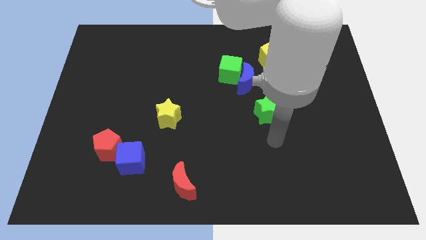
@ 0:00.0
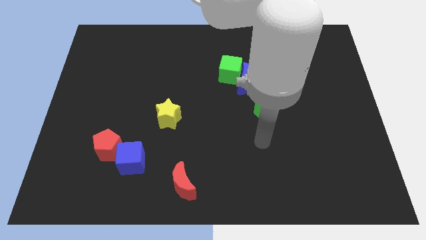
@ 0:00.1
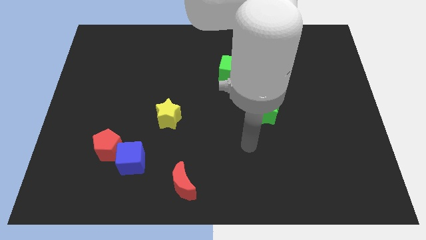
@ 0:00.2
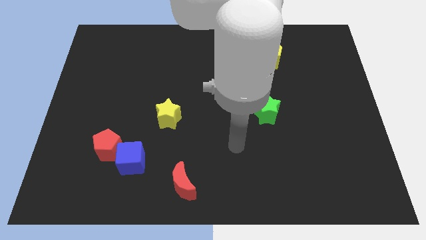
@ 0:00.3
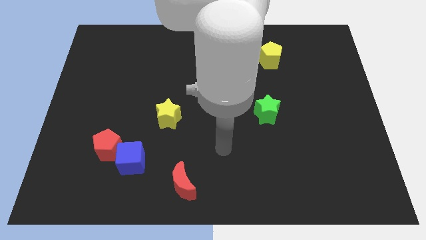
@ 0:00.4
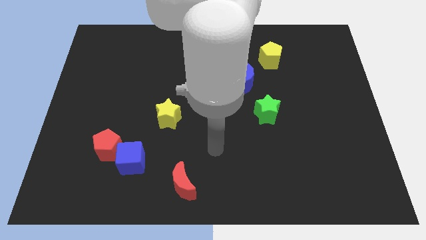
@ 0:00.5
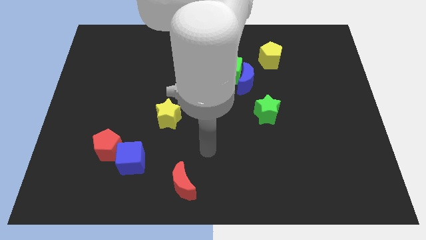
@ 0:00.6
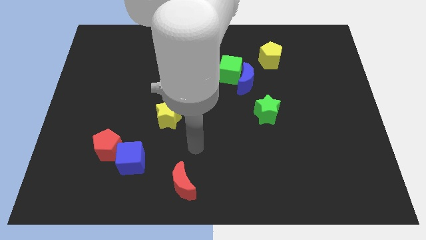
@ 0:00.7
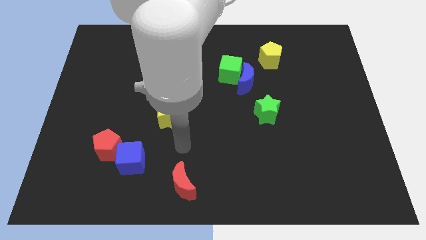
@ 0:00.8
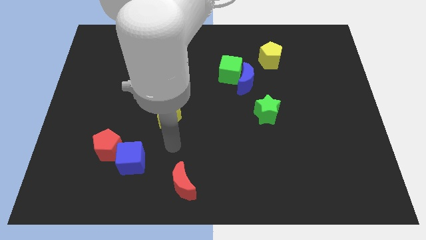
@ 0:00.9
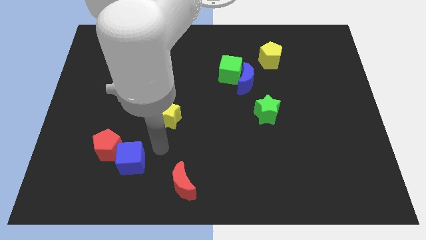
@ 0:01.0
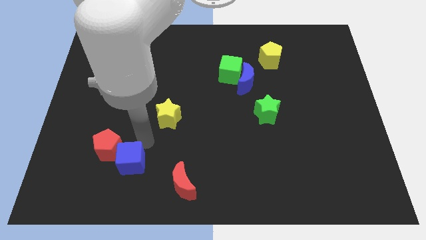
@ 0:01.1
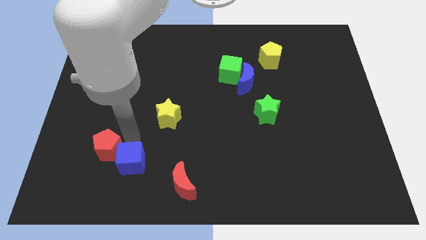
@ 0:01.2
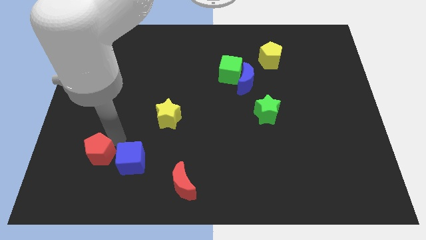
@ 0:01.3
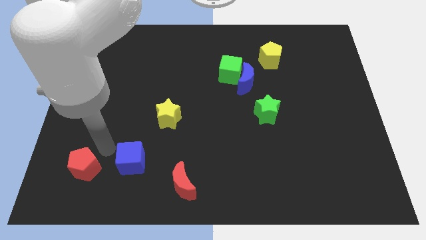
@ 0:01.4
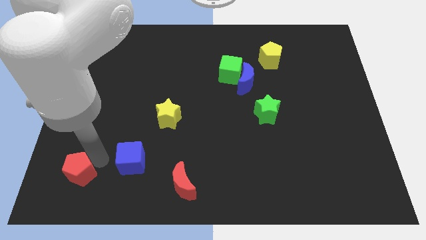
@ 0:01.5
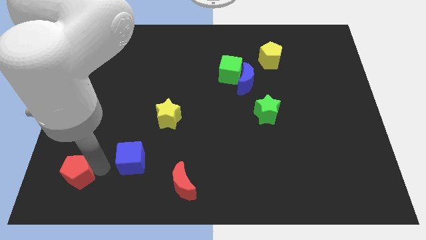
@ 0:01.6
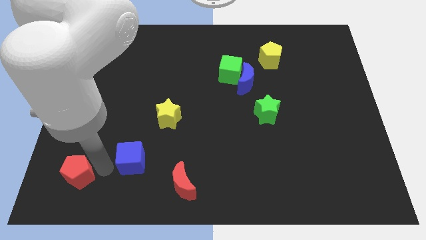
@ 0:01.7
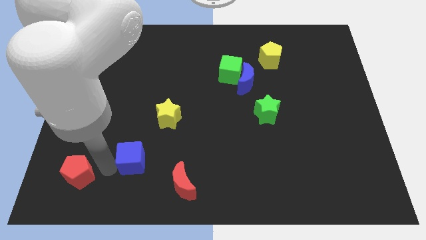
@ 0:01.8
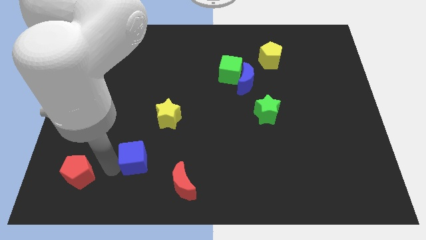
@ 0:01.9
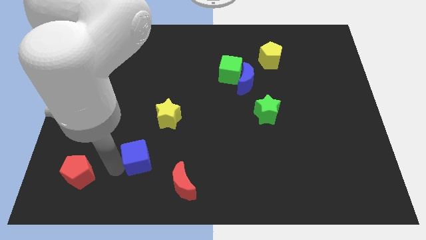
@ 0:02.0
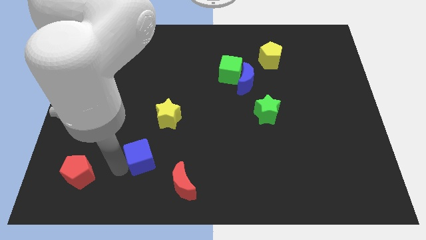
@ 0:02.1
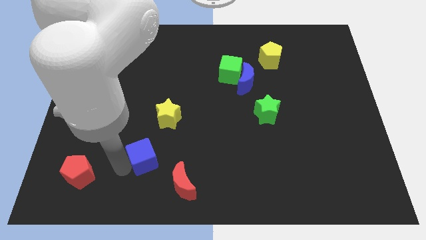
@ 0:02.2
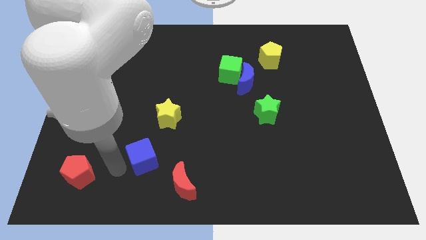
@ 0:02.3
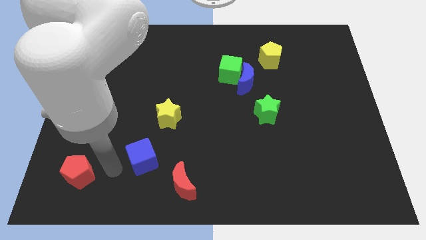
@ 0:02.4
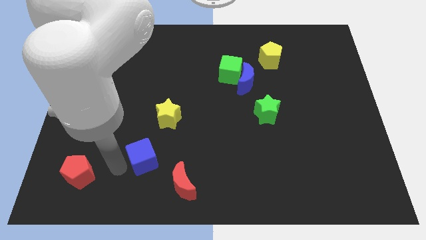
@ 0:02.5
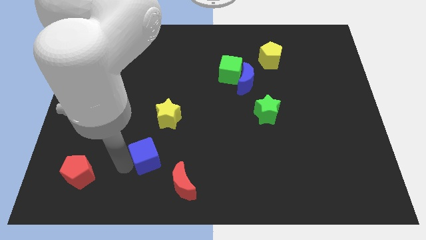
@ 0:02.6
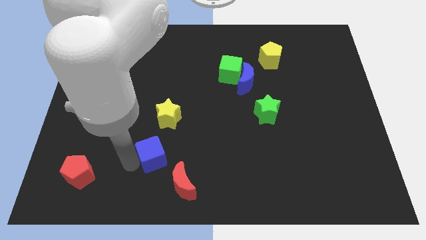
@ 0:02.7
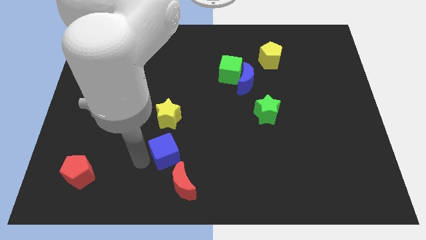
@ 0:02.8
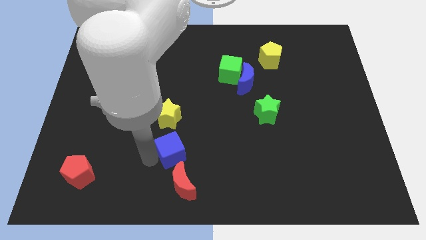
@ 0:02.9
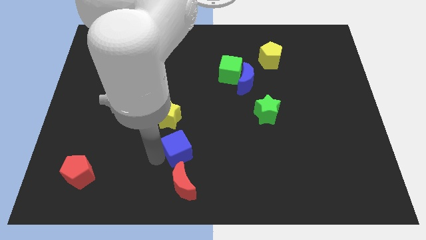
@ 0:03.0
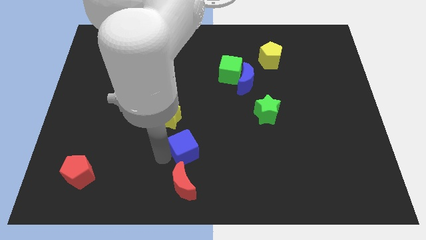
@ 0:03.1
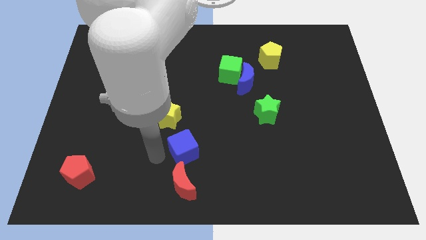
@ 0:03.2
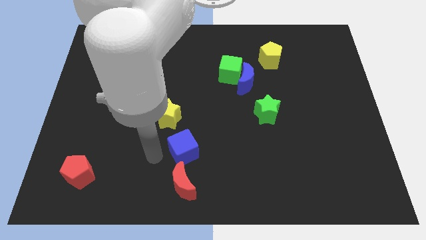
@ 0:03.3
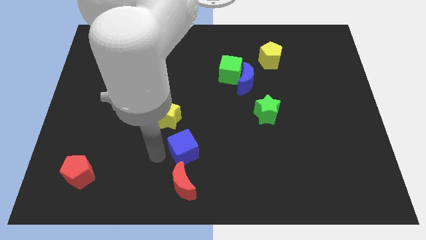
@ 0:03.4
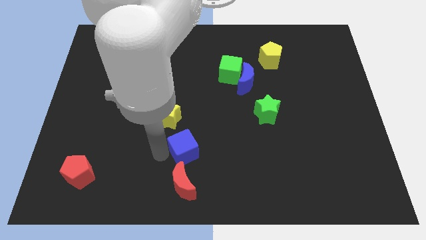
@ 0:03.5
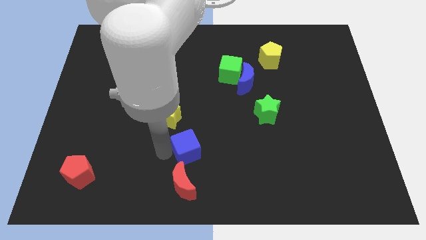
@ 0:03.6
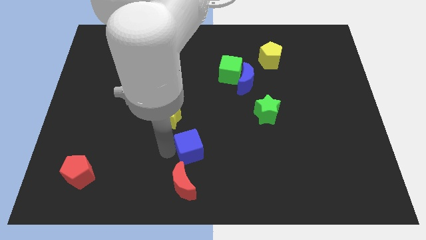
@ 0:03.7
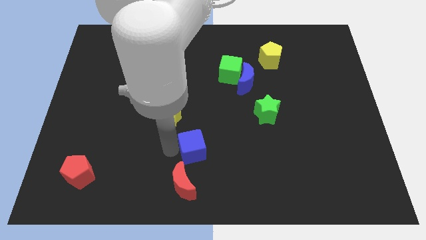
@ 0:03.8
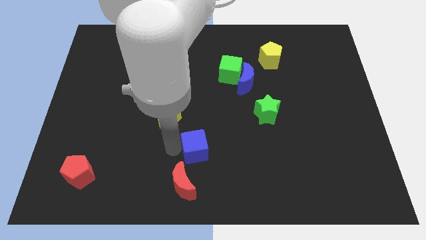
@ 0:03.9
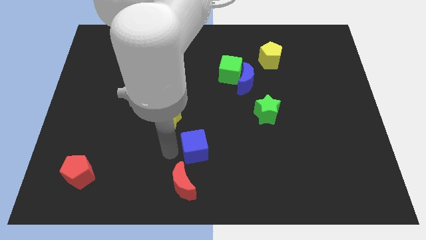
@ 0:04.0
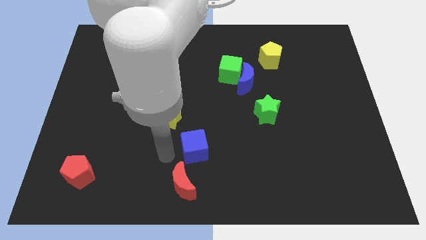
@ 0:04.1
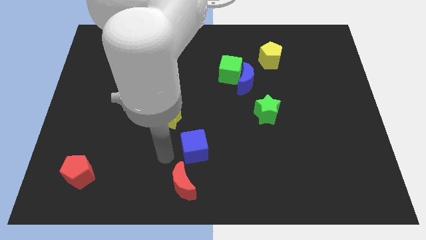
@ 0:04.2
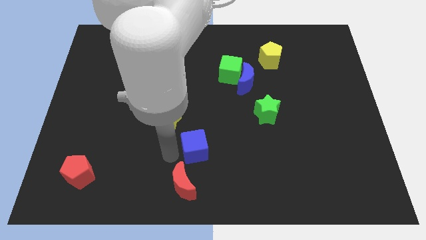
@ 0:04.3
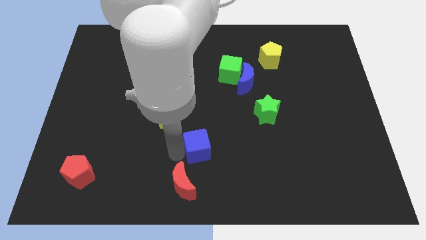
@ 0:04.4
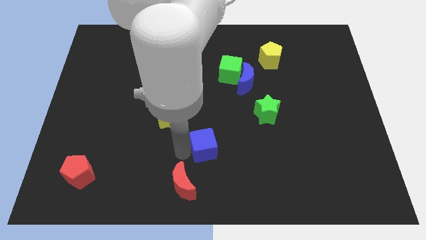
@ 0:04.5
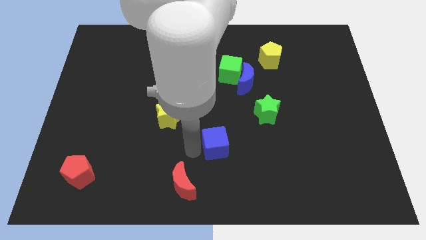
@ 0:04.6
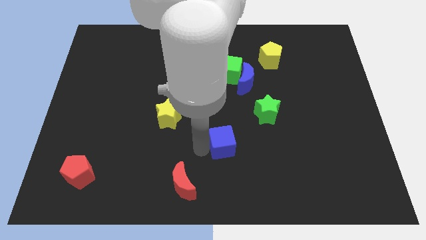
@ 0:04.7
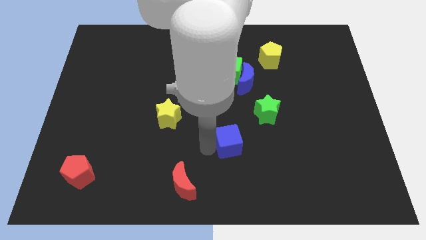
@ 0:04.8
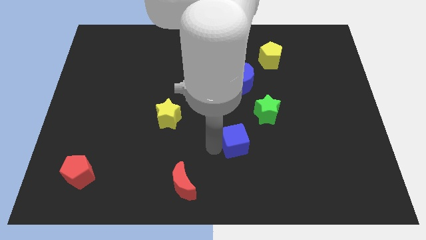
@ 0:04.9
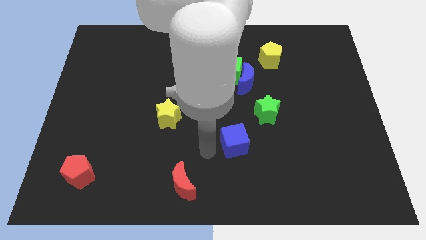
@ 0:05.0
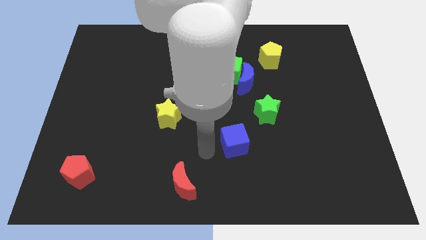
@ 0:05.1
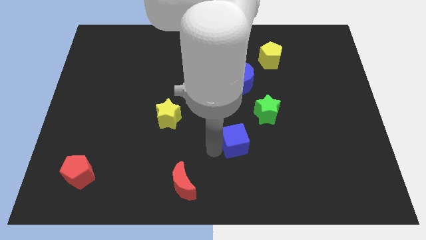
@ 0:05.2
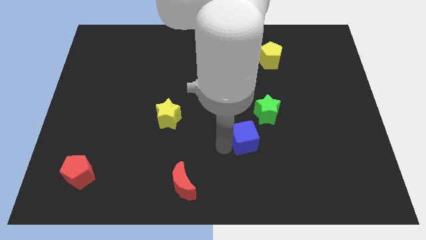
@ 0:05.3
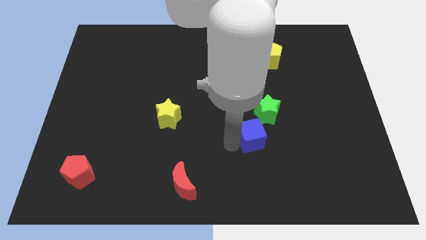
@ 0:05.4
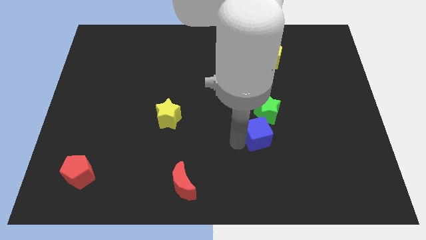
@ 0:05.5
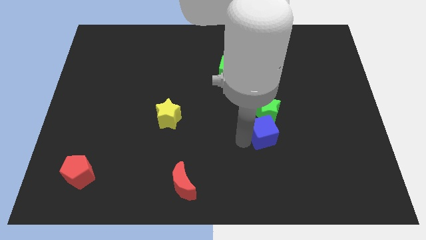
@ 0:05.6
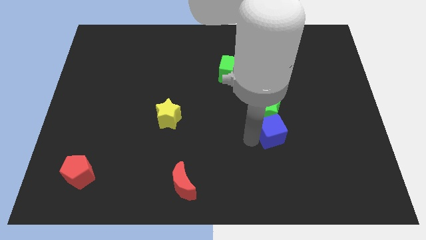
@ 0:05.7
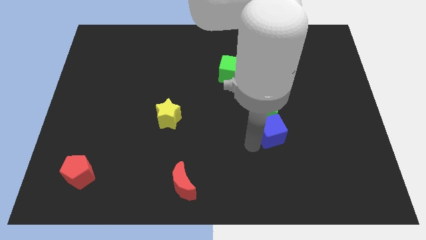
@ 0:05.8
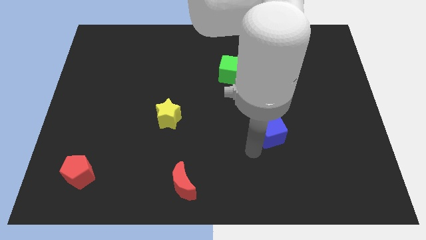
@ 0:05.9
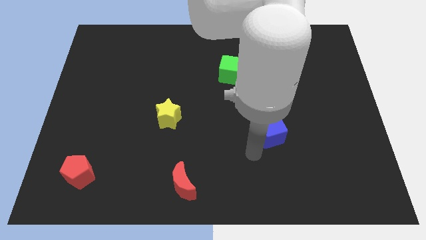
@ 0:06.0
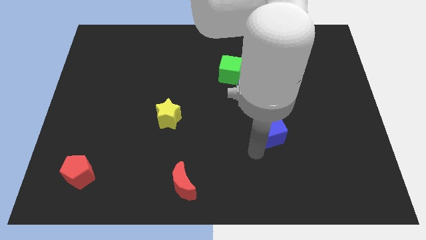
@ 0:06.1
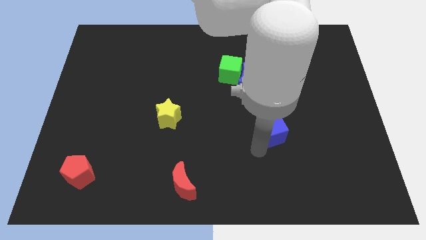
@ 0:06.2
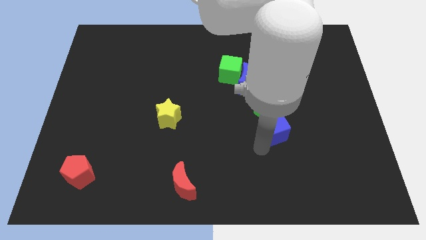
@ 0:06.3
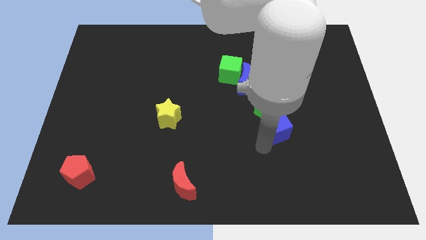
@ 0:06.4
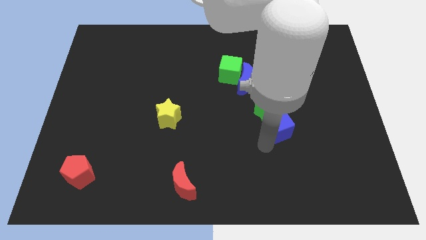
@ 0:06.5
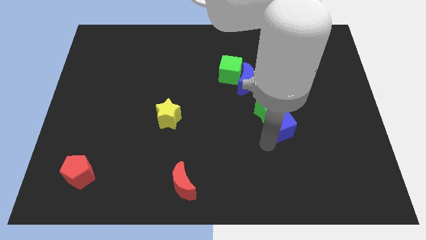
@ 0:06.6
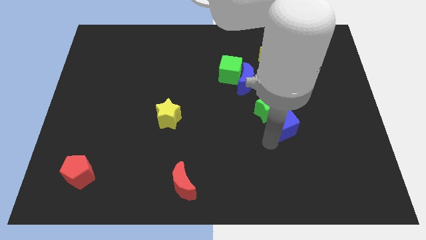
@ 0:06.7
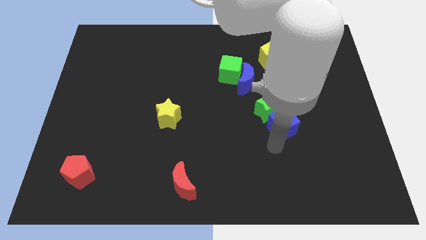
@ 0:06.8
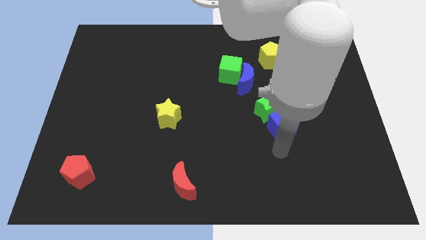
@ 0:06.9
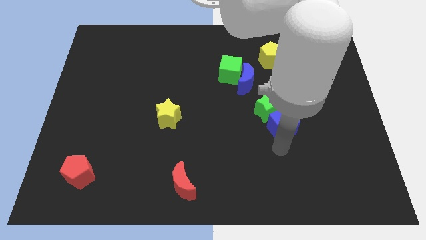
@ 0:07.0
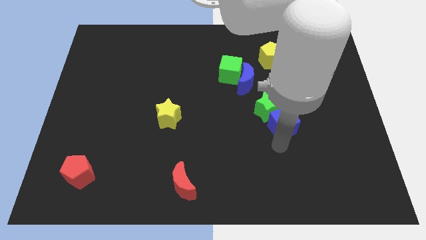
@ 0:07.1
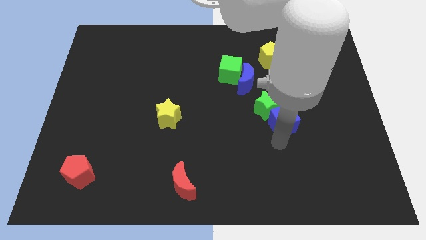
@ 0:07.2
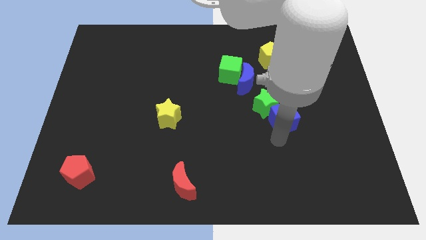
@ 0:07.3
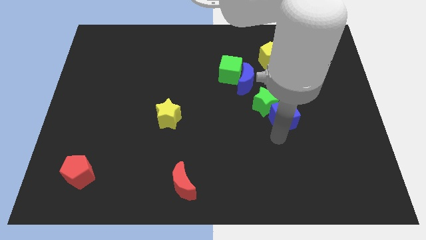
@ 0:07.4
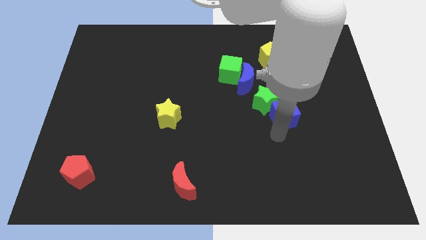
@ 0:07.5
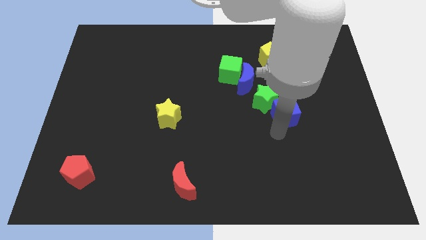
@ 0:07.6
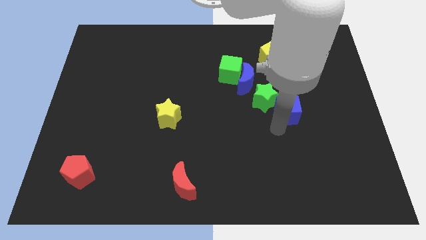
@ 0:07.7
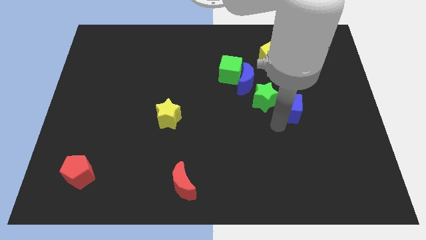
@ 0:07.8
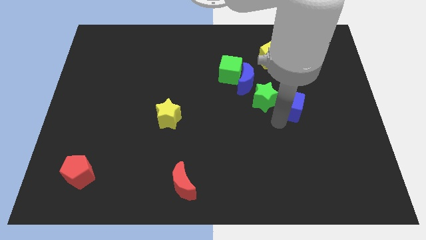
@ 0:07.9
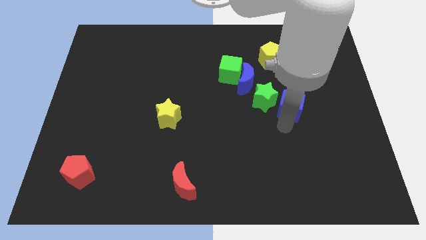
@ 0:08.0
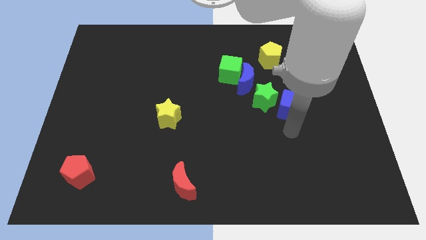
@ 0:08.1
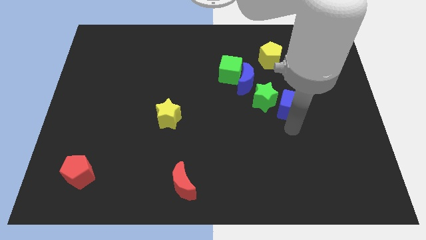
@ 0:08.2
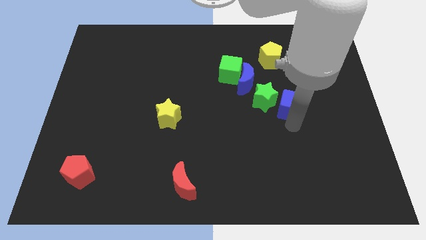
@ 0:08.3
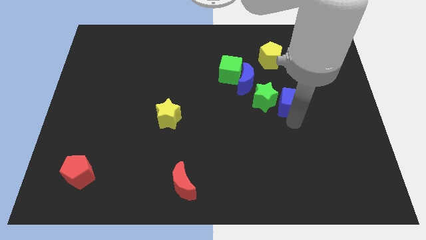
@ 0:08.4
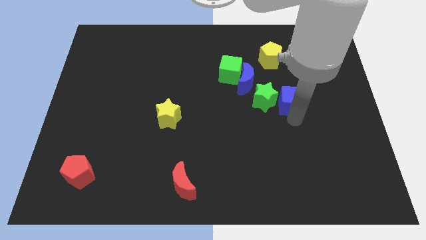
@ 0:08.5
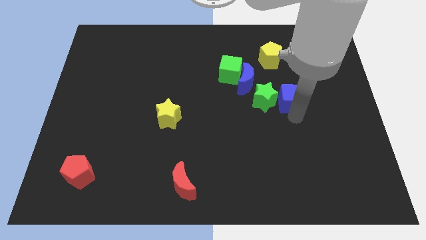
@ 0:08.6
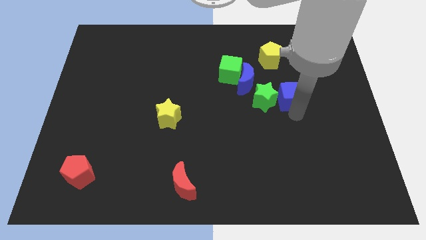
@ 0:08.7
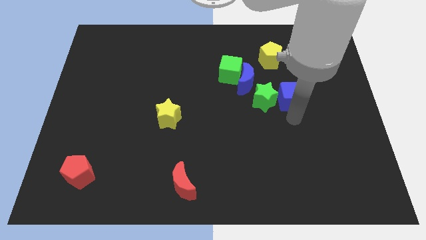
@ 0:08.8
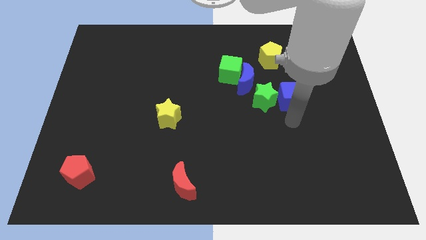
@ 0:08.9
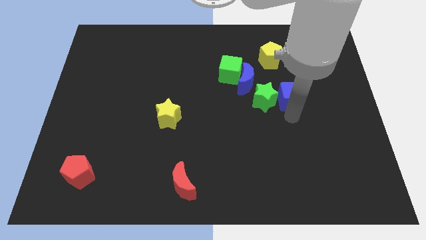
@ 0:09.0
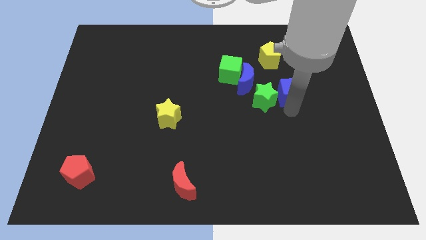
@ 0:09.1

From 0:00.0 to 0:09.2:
slide the blue cube to the right of the blue moon
